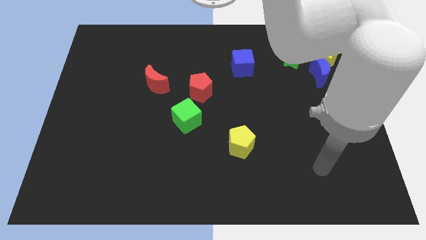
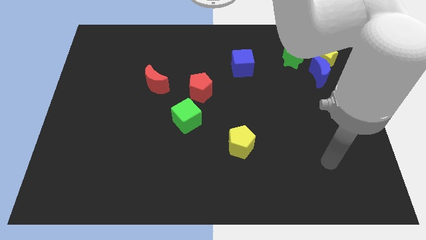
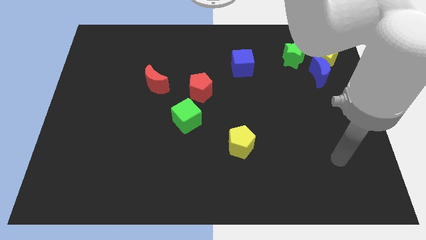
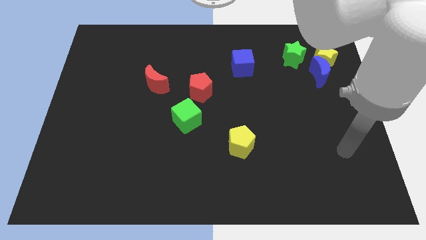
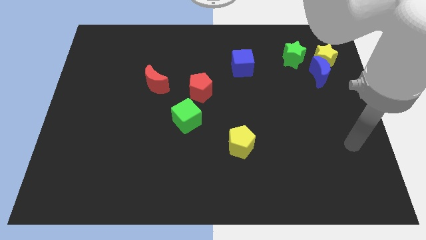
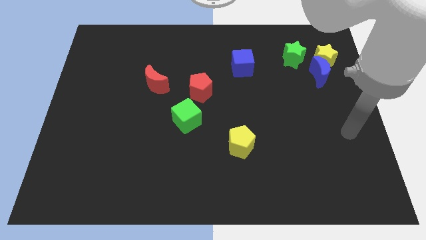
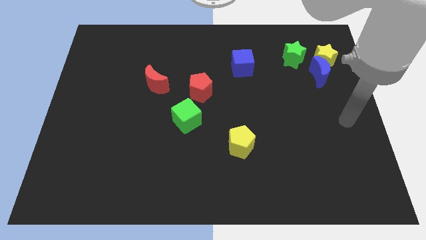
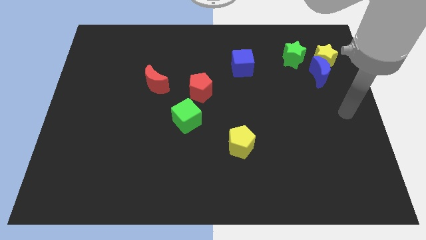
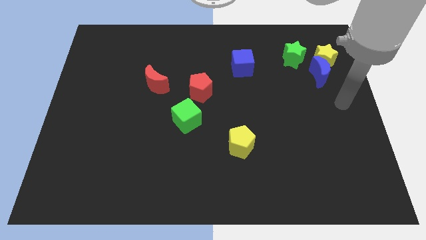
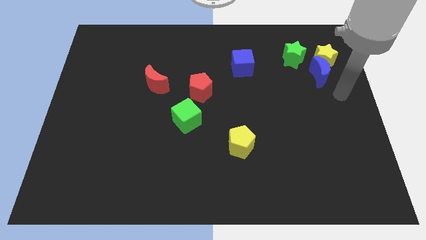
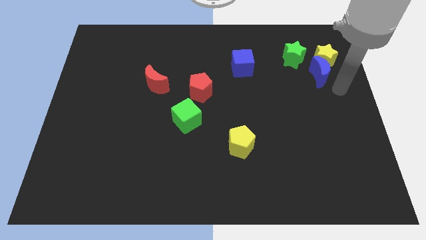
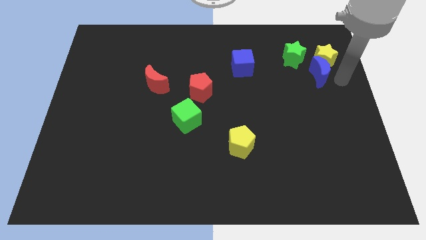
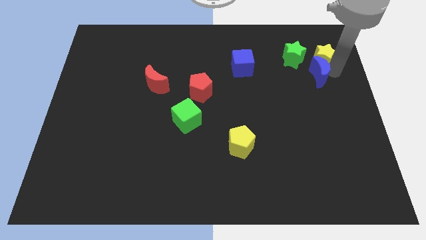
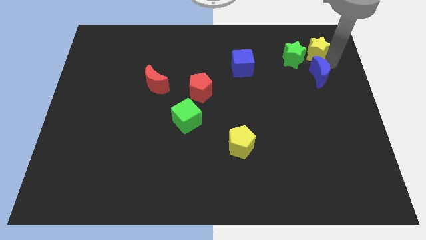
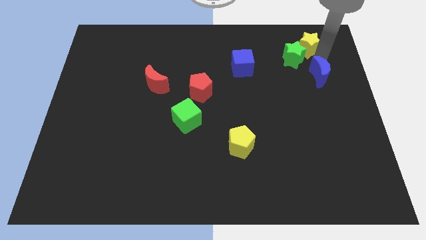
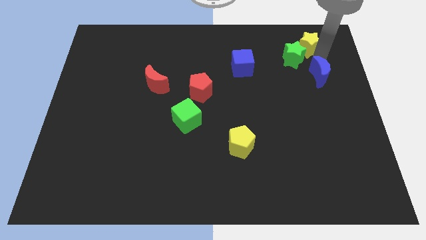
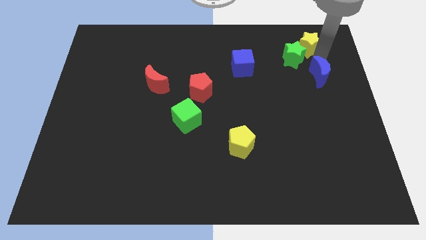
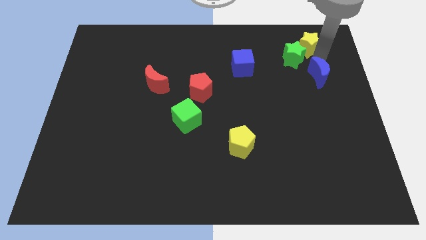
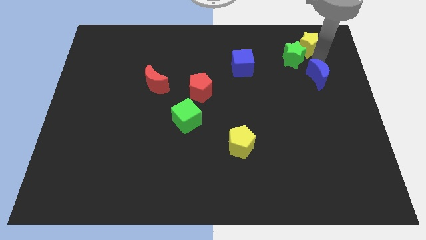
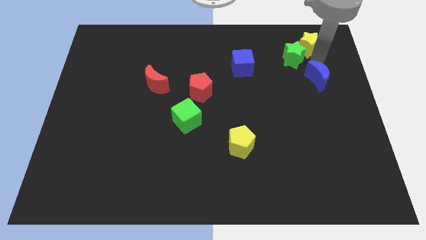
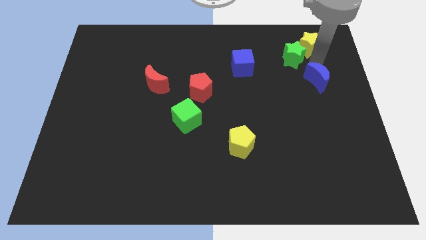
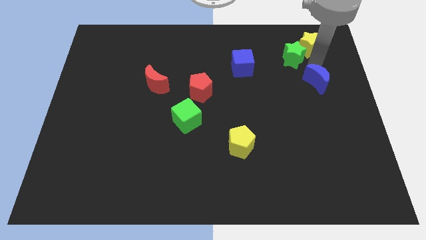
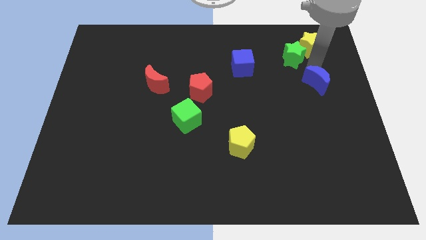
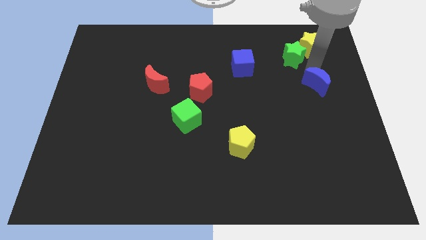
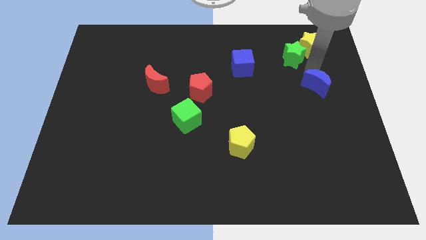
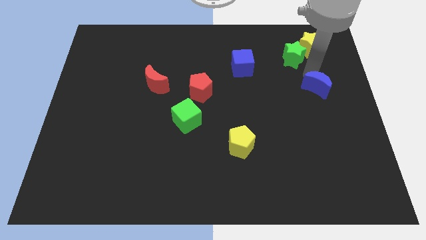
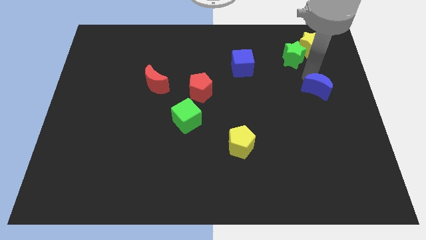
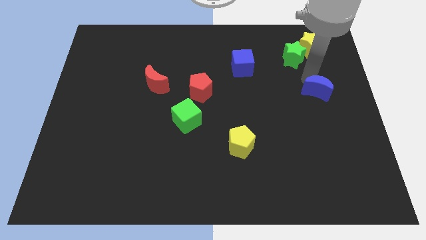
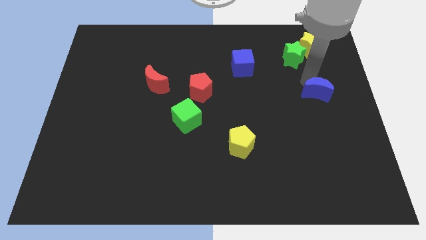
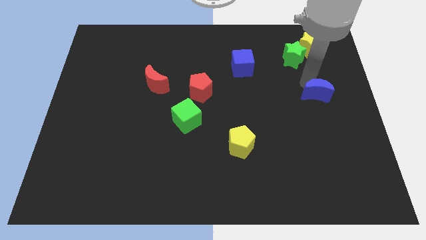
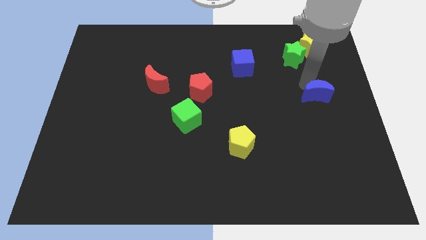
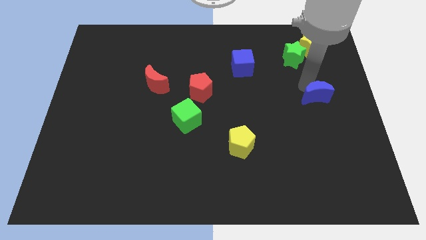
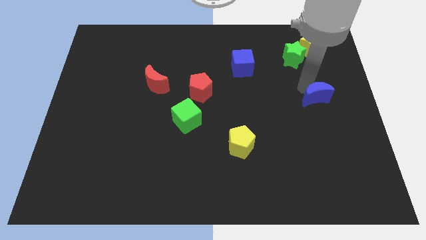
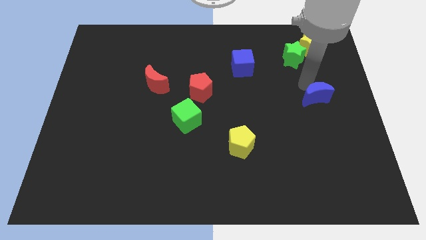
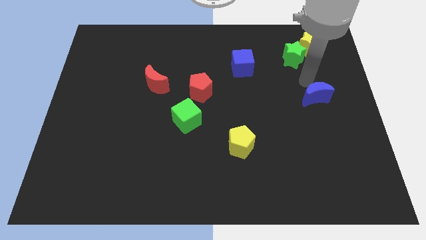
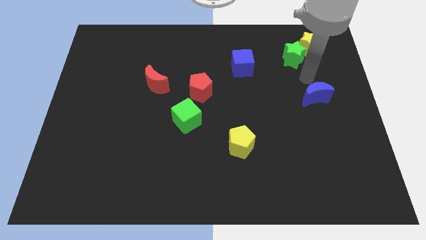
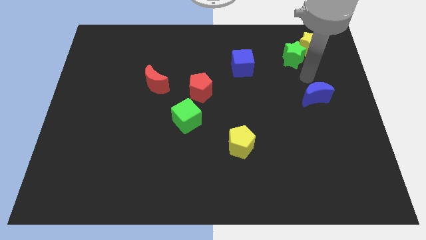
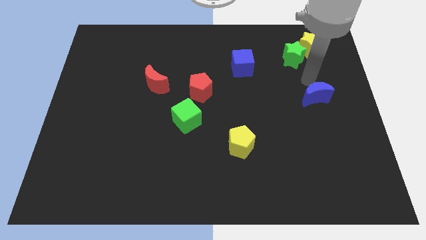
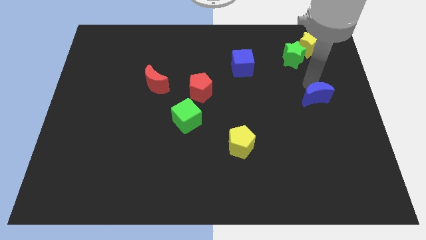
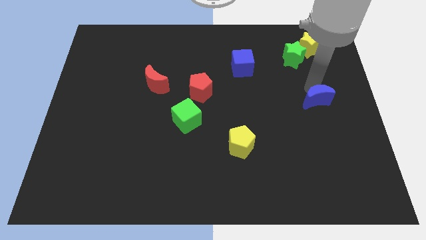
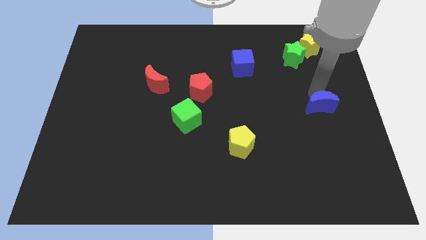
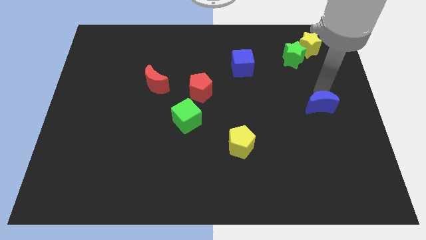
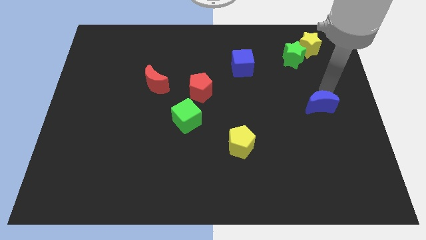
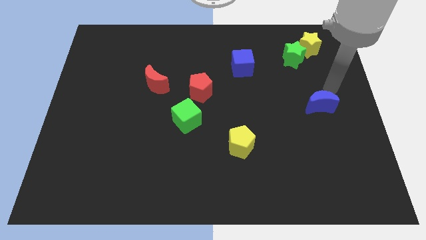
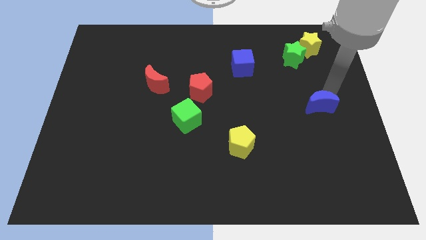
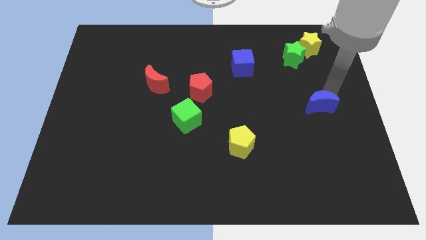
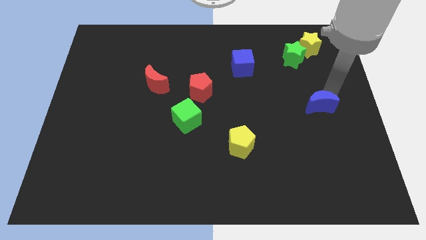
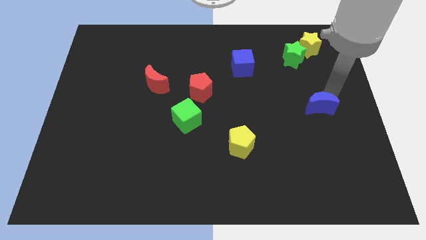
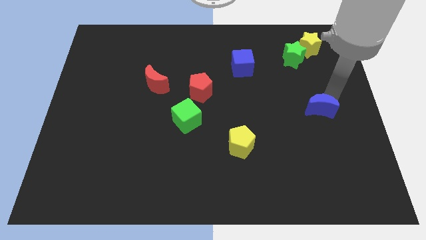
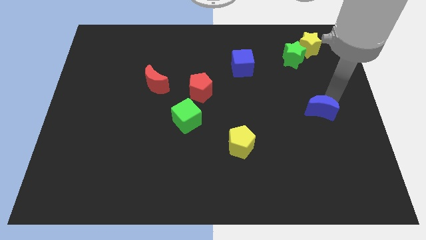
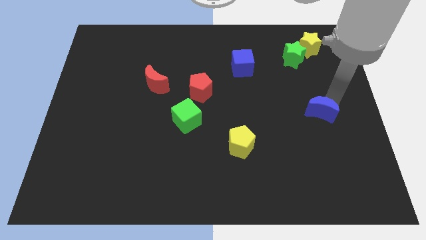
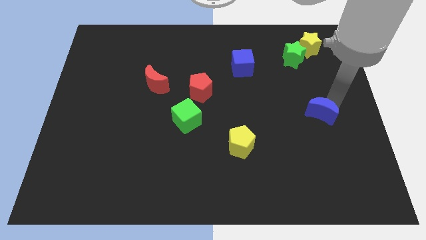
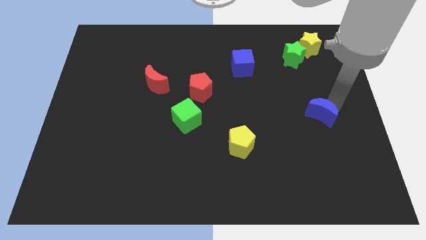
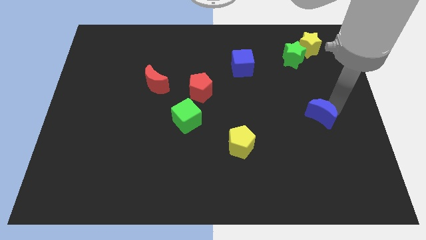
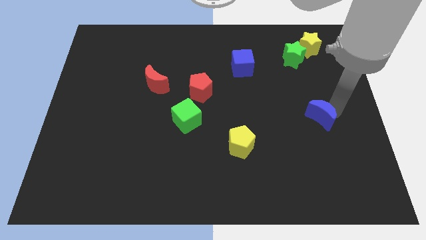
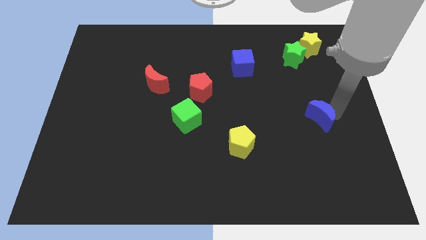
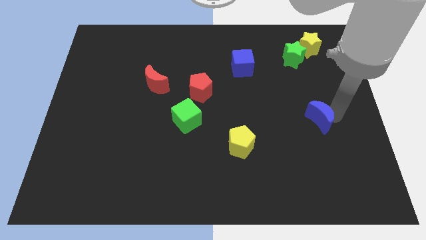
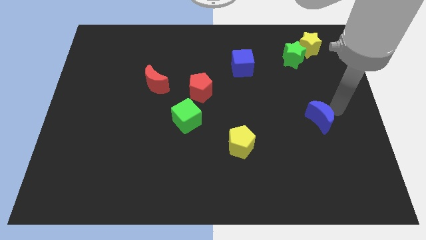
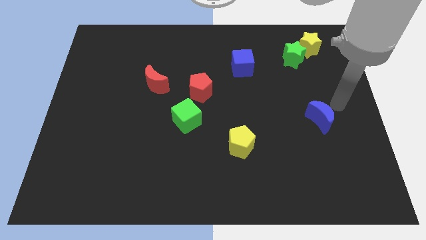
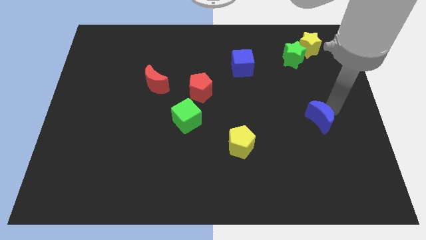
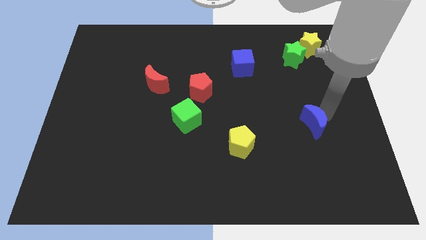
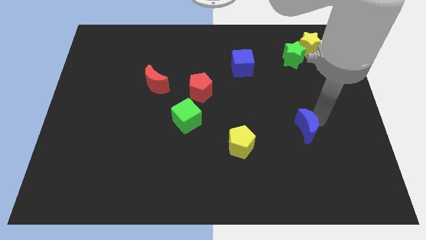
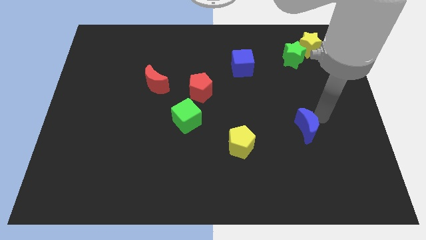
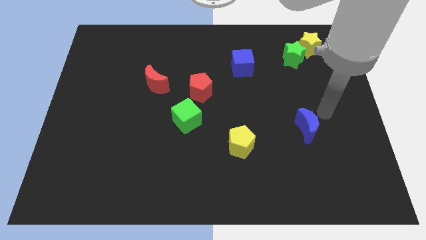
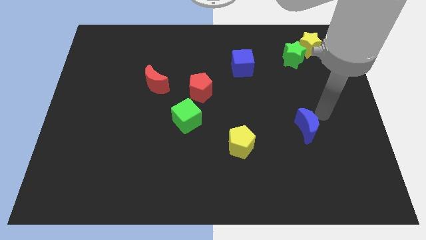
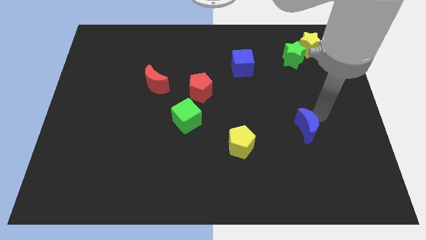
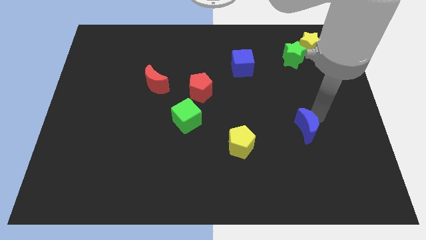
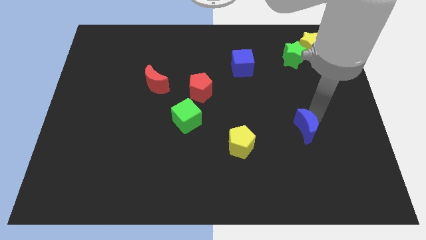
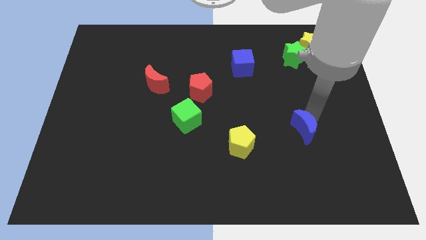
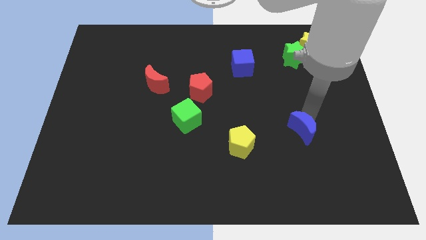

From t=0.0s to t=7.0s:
put the blue moon to the right of the yellow pentagon

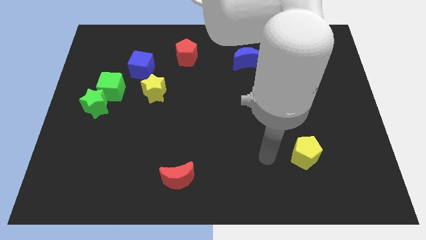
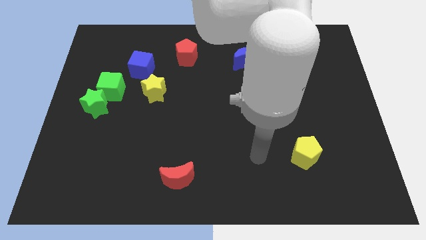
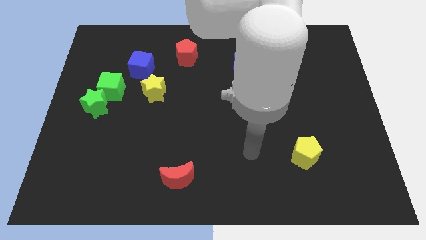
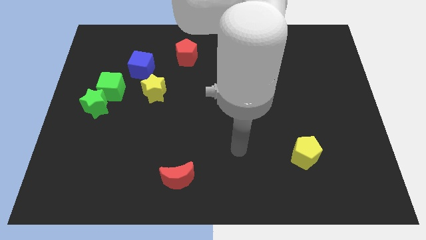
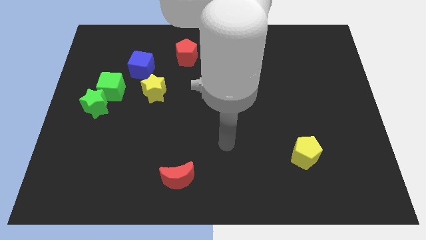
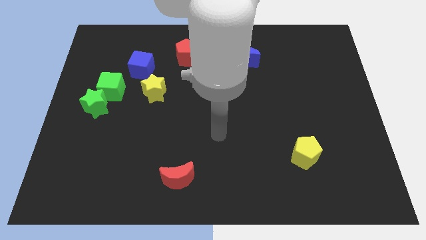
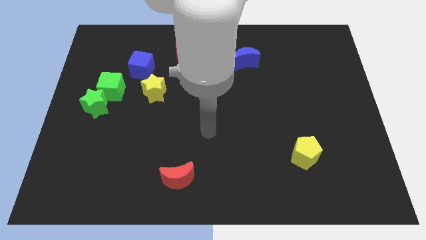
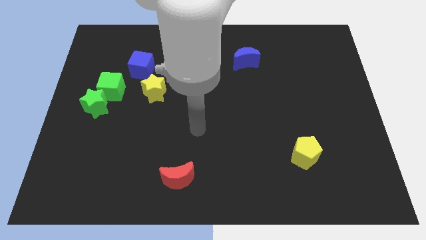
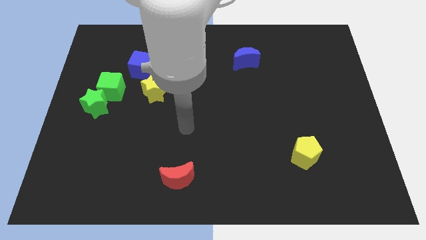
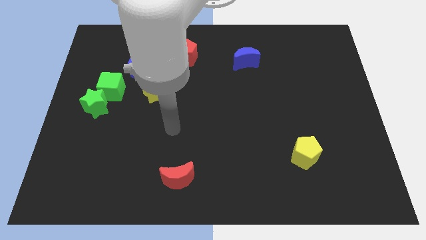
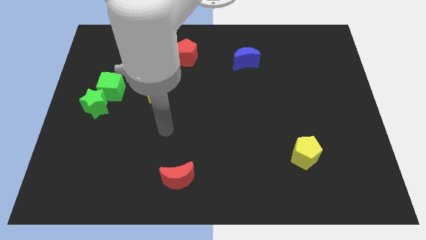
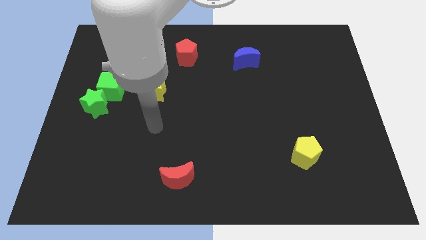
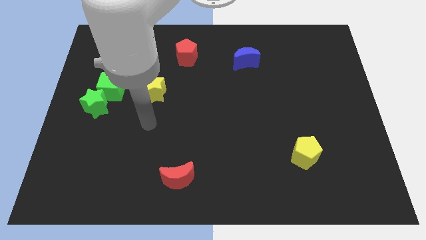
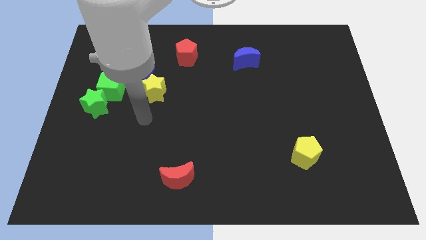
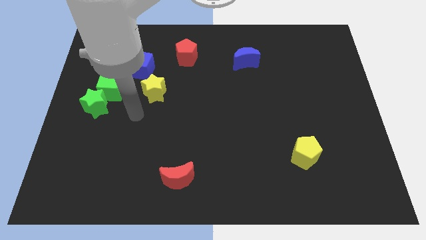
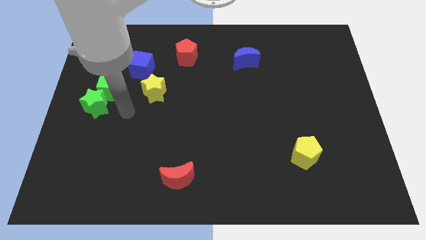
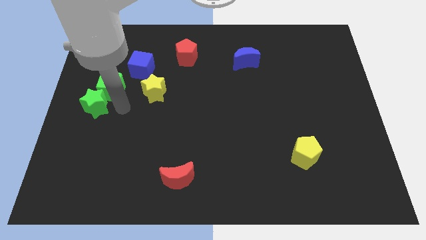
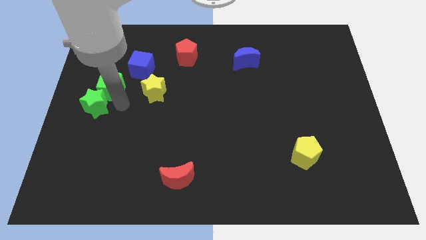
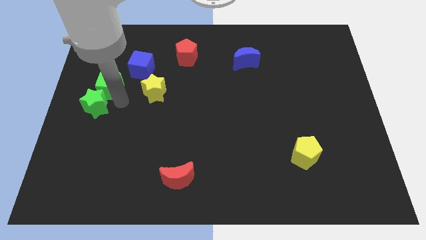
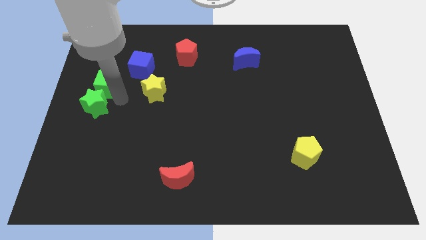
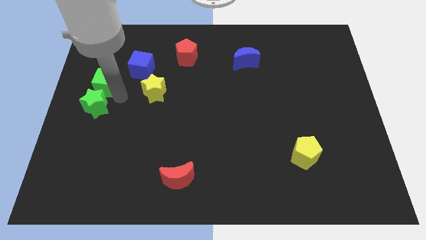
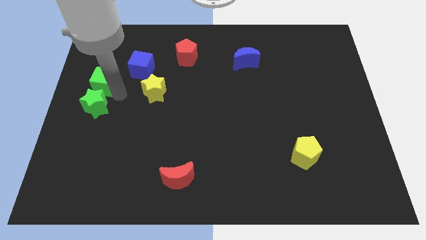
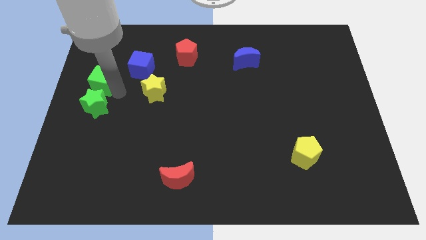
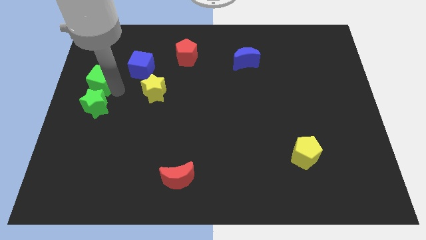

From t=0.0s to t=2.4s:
push the green cube just left of the blue cube
